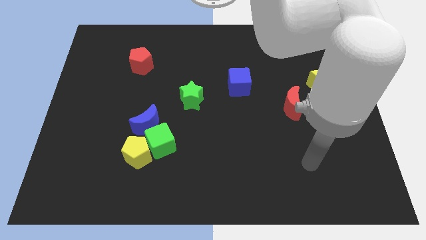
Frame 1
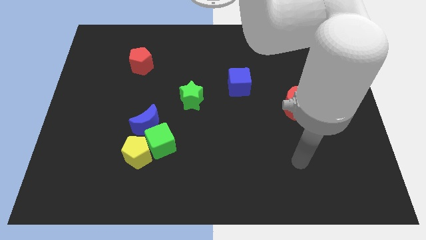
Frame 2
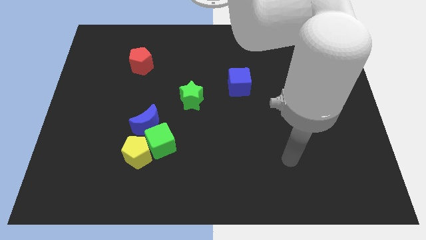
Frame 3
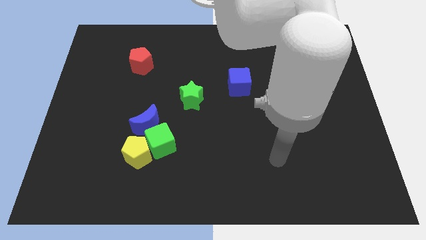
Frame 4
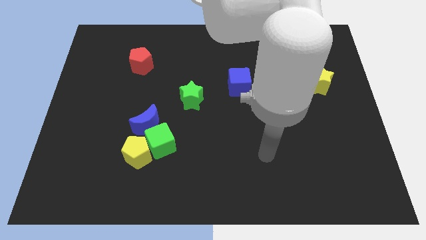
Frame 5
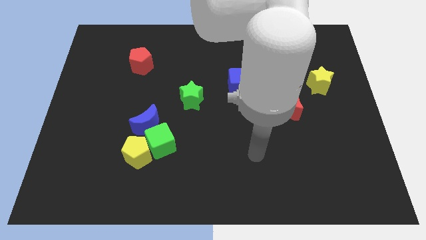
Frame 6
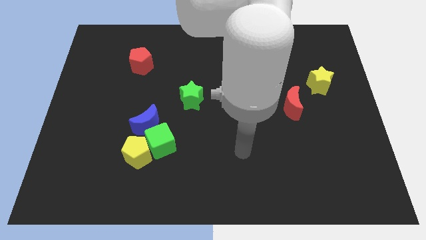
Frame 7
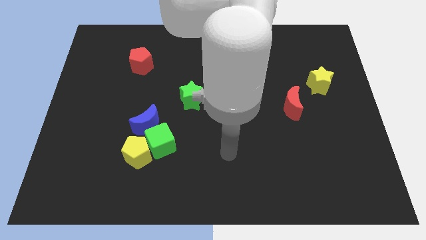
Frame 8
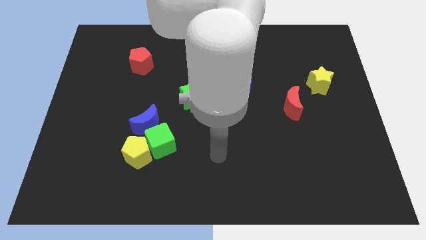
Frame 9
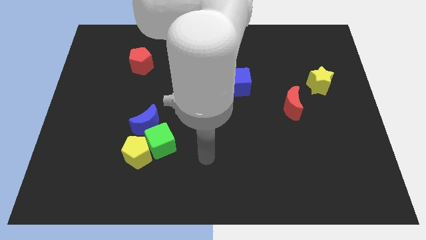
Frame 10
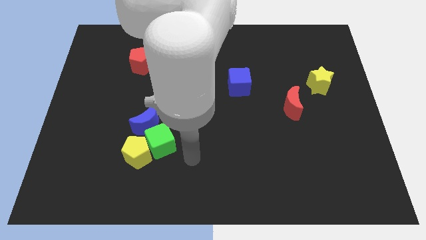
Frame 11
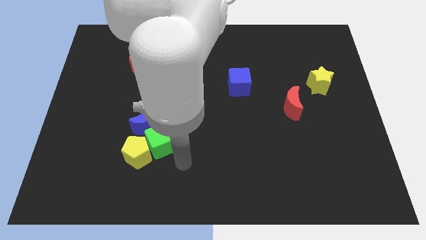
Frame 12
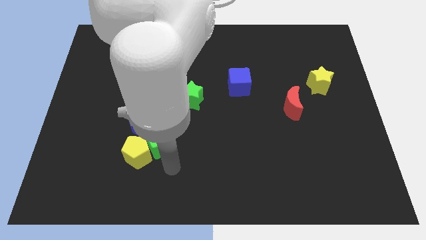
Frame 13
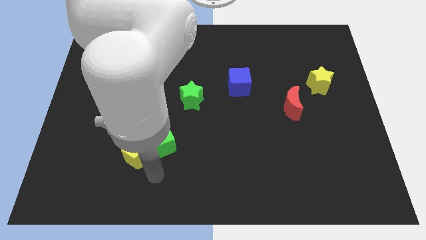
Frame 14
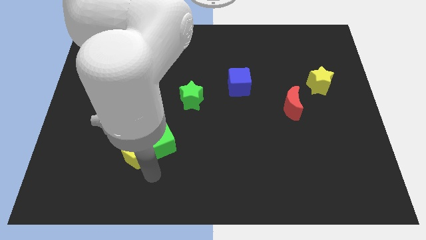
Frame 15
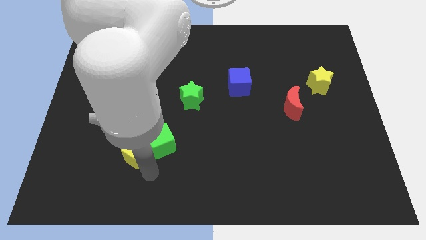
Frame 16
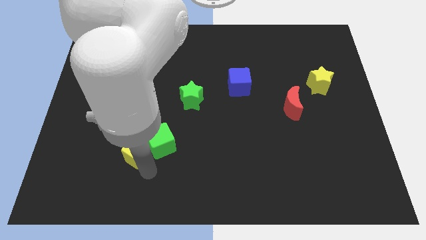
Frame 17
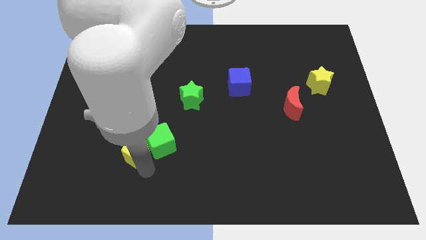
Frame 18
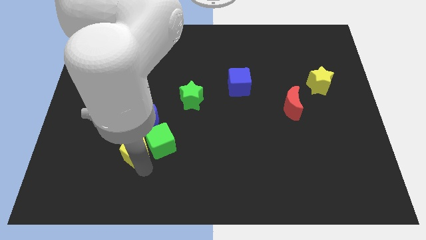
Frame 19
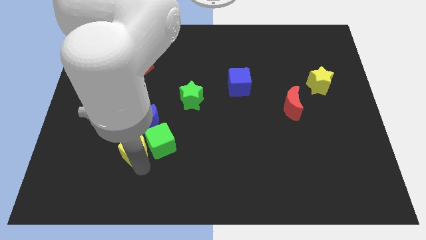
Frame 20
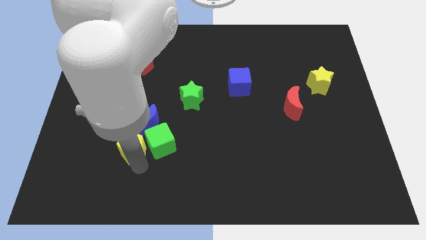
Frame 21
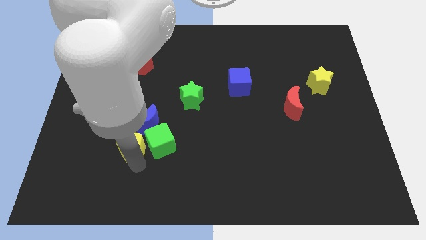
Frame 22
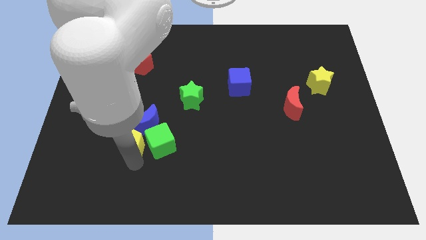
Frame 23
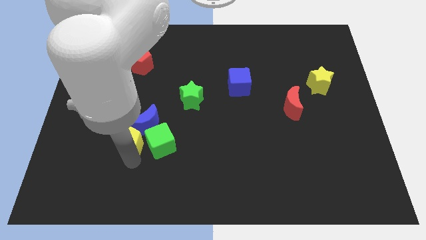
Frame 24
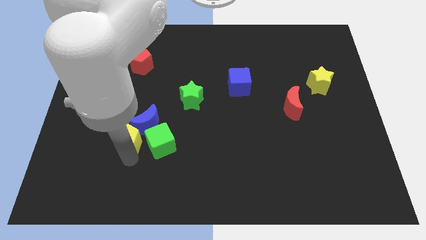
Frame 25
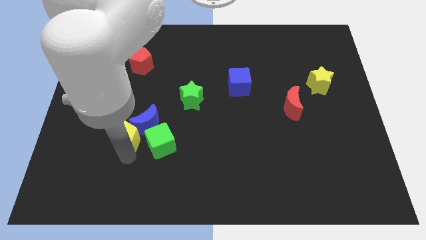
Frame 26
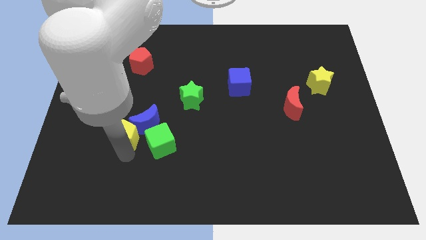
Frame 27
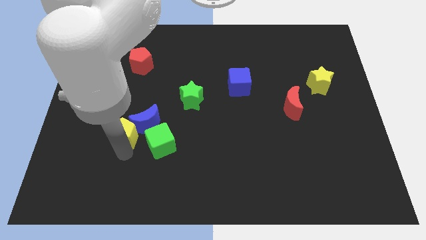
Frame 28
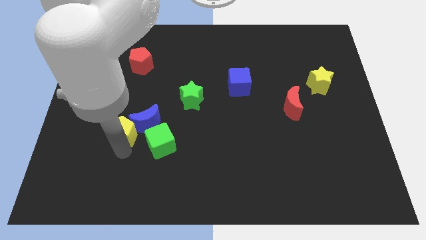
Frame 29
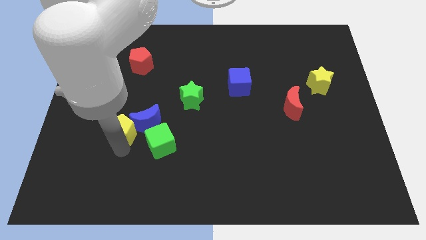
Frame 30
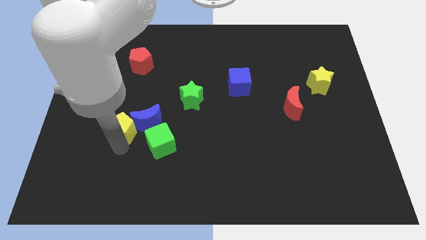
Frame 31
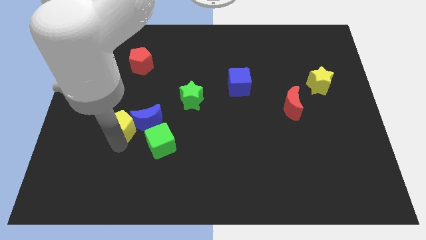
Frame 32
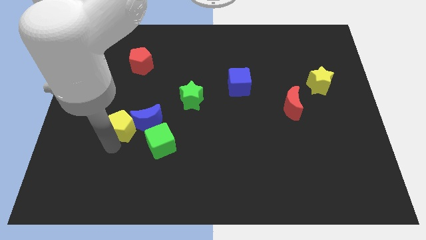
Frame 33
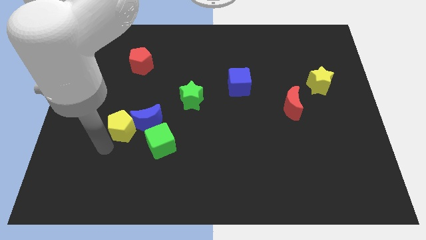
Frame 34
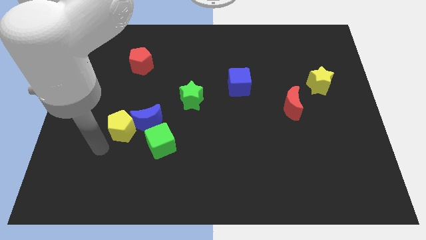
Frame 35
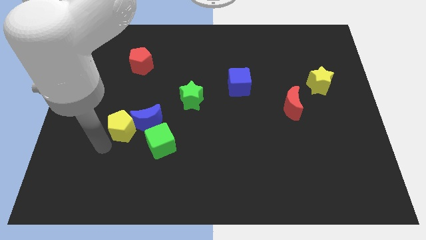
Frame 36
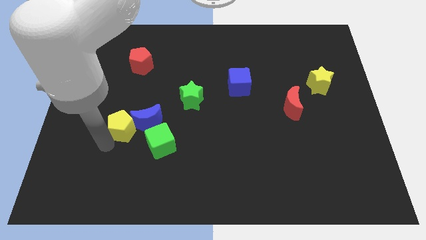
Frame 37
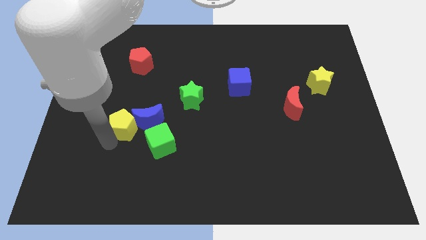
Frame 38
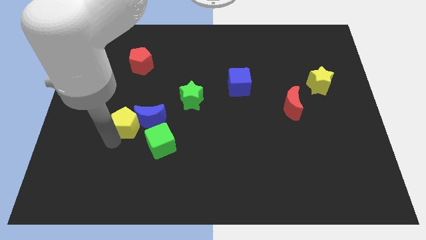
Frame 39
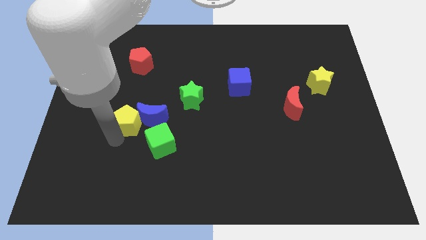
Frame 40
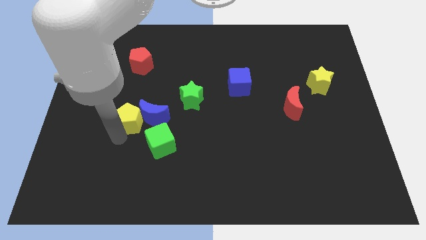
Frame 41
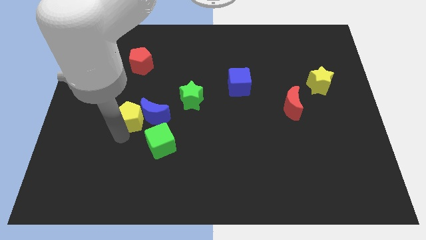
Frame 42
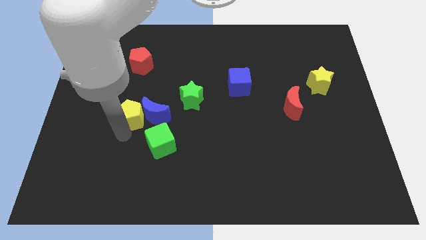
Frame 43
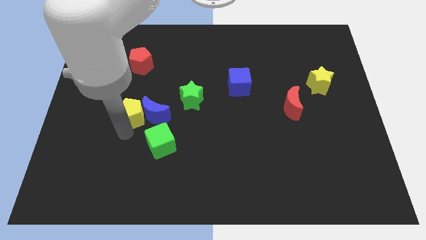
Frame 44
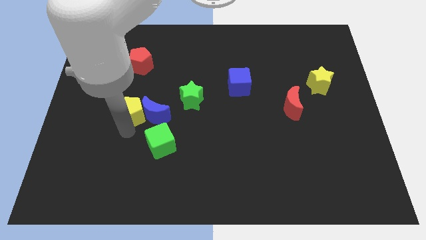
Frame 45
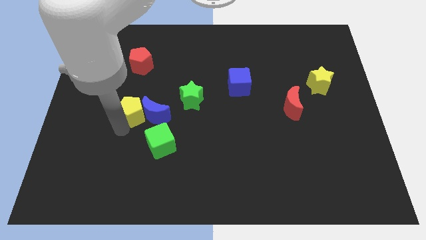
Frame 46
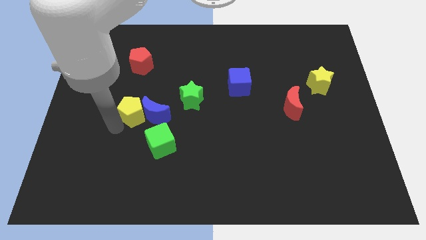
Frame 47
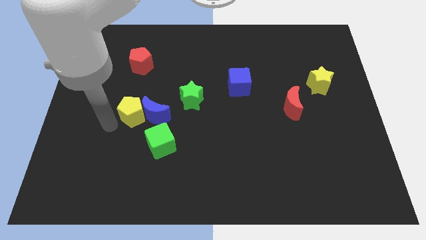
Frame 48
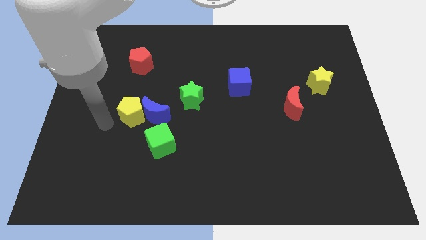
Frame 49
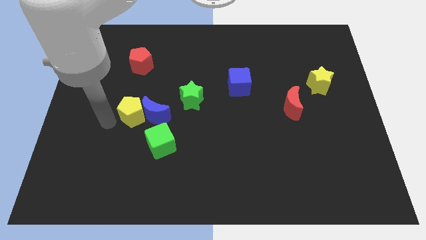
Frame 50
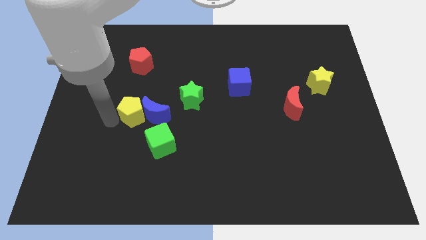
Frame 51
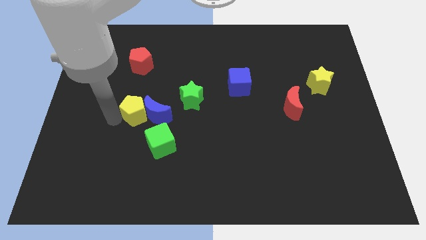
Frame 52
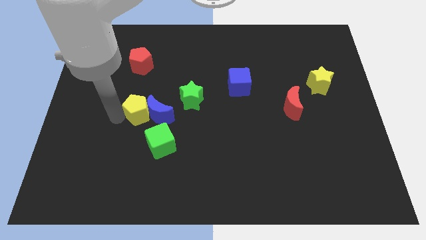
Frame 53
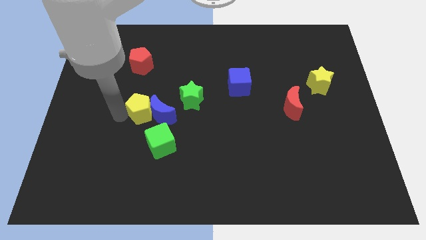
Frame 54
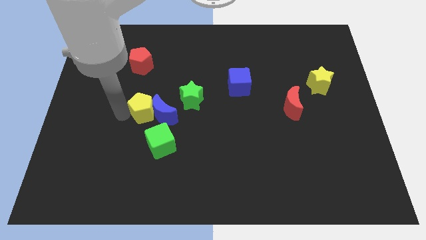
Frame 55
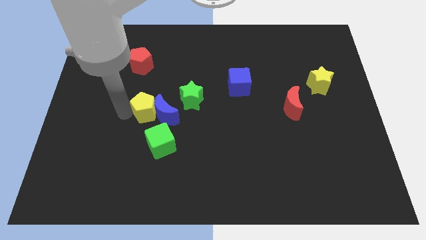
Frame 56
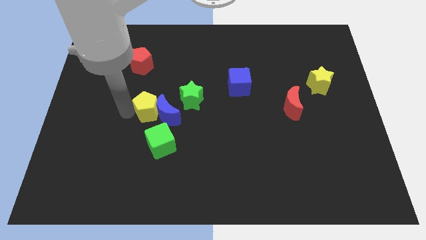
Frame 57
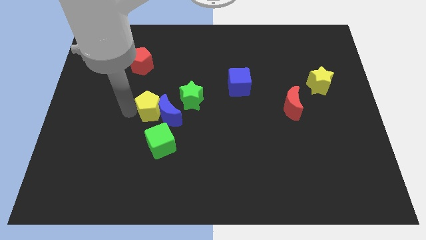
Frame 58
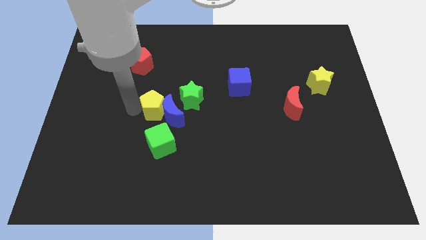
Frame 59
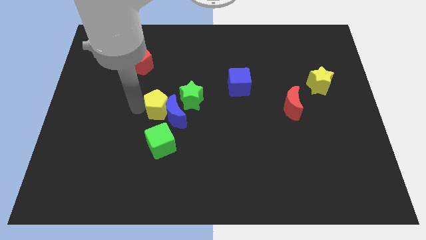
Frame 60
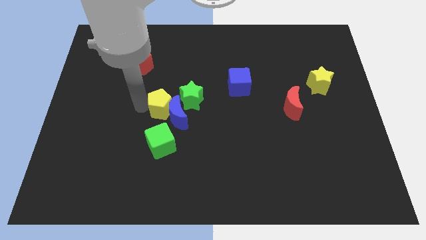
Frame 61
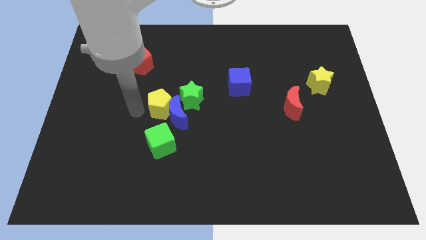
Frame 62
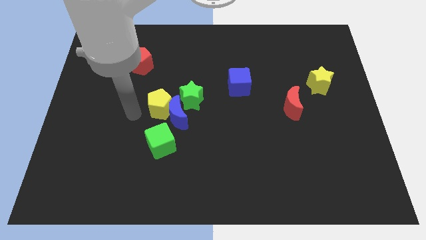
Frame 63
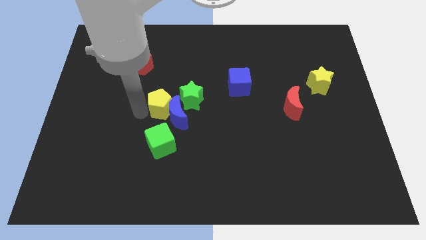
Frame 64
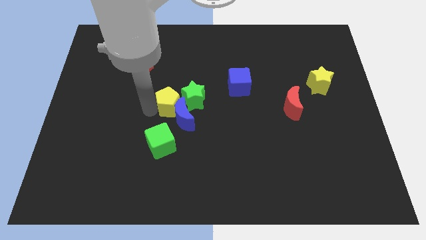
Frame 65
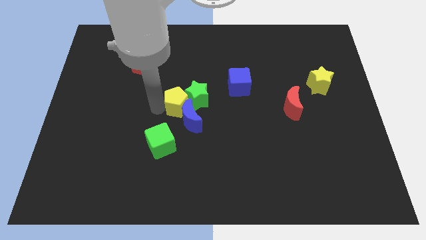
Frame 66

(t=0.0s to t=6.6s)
move the yellow pentagon close to the green star

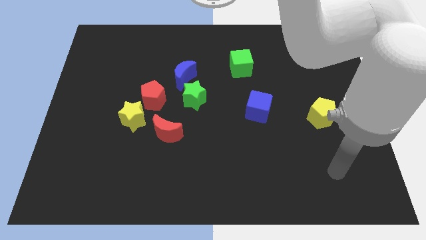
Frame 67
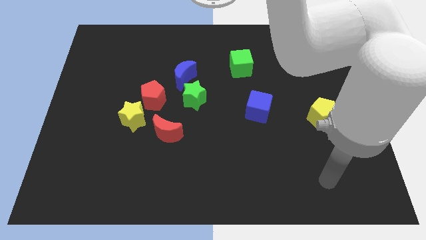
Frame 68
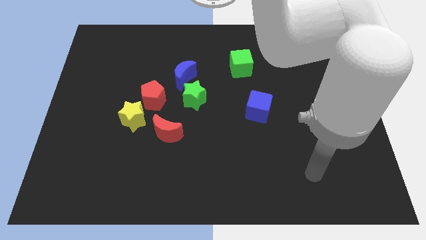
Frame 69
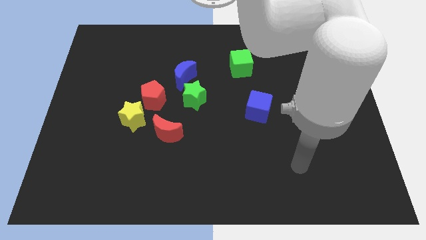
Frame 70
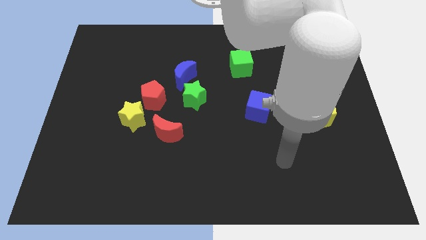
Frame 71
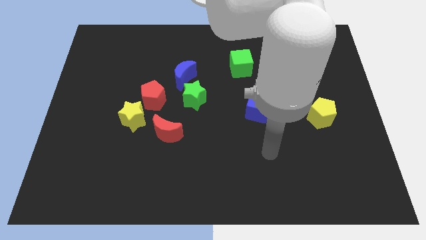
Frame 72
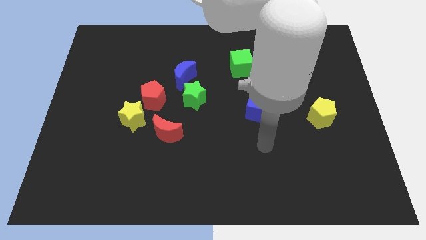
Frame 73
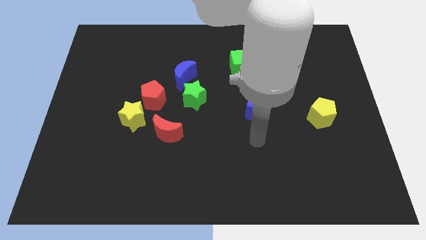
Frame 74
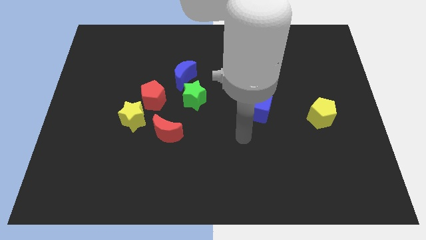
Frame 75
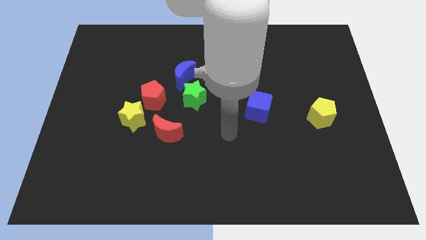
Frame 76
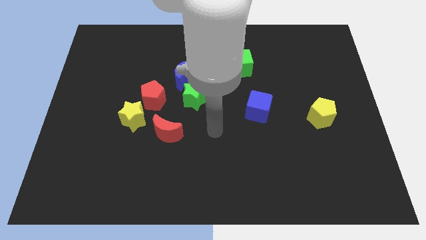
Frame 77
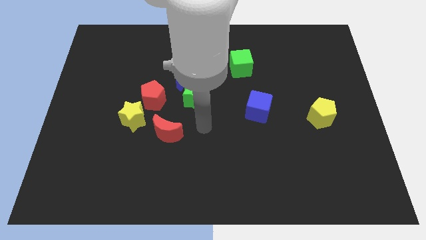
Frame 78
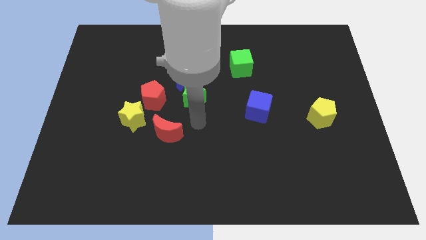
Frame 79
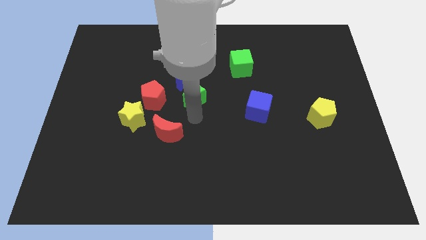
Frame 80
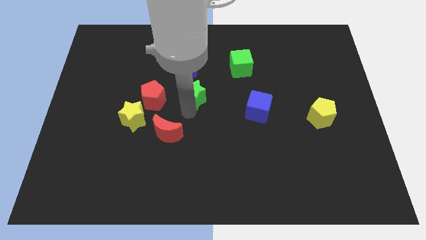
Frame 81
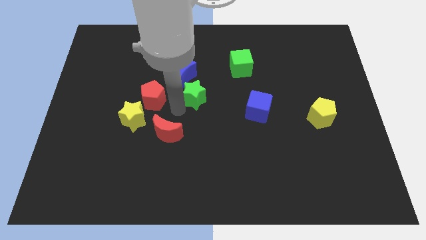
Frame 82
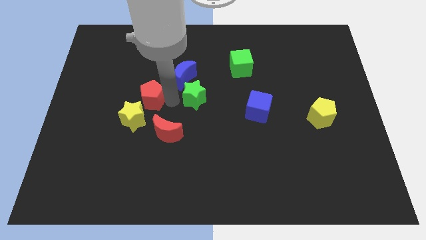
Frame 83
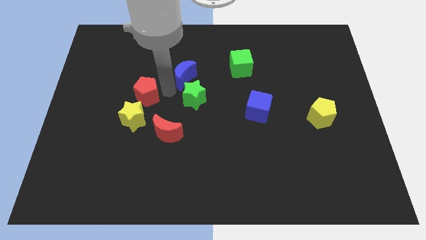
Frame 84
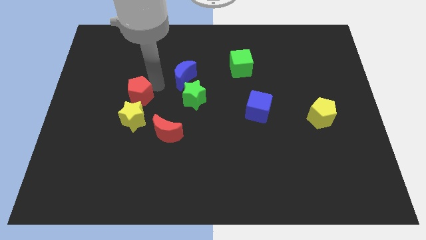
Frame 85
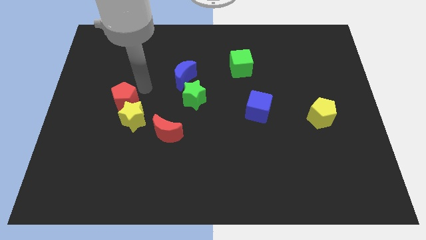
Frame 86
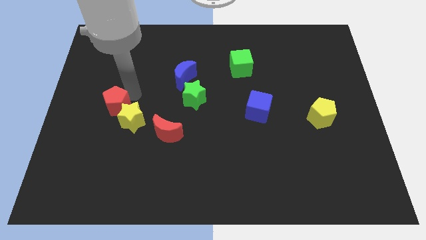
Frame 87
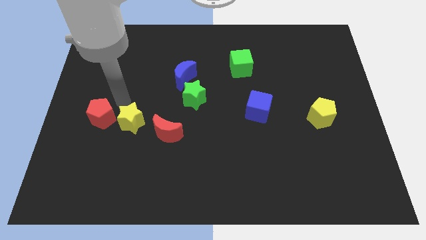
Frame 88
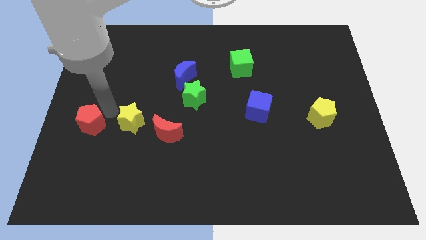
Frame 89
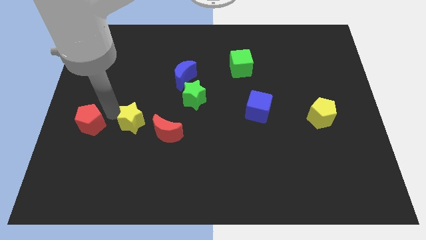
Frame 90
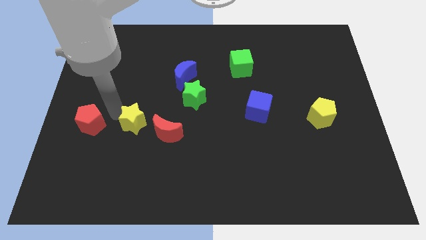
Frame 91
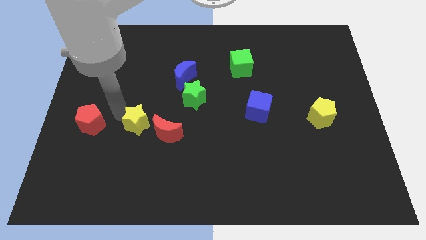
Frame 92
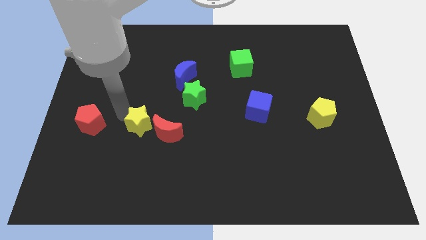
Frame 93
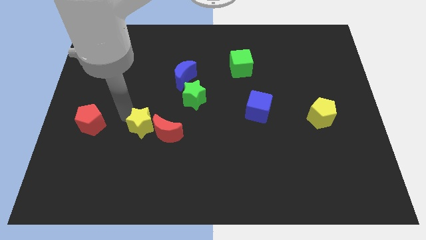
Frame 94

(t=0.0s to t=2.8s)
slide the yellow star next to the red moon
